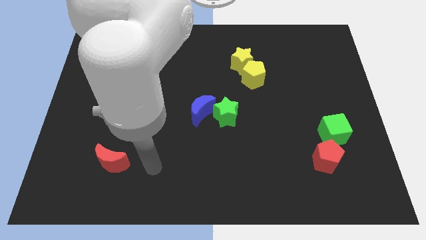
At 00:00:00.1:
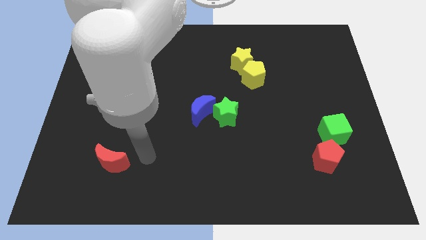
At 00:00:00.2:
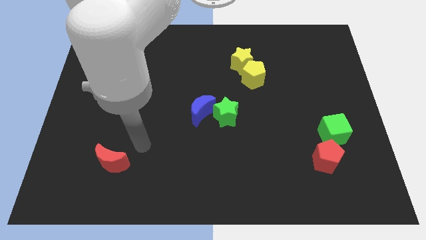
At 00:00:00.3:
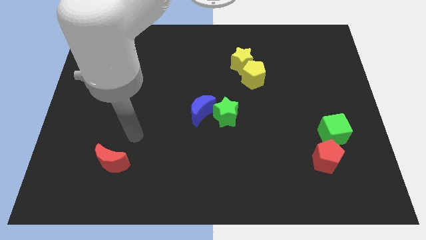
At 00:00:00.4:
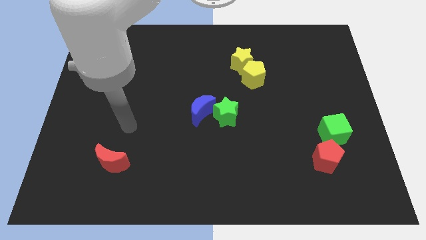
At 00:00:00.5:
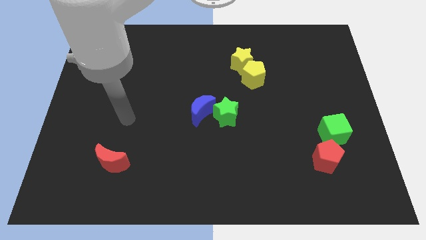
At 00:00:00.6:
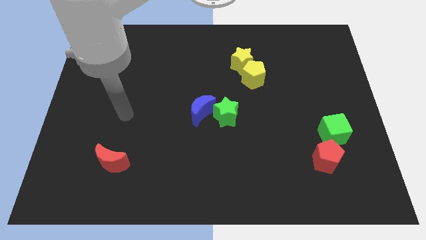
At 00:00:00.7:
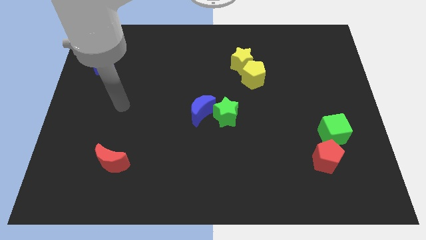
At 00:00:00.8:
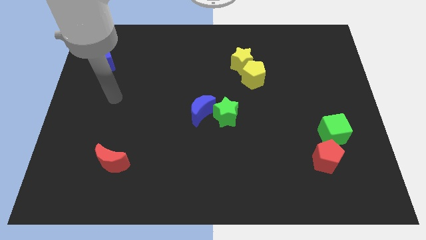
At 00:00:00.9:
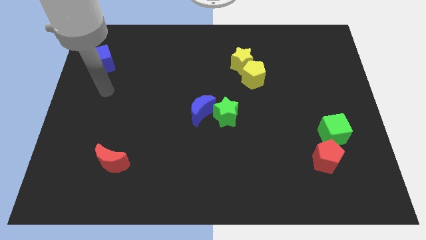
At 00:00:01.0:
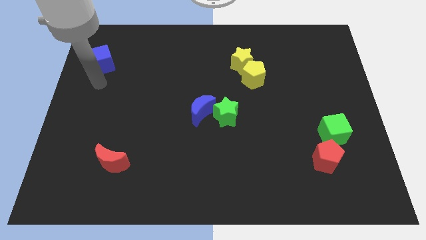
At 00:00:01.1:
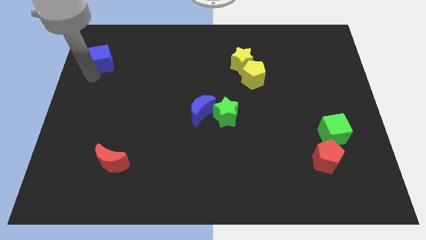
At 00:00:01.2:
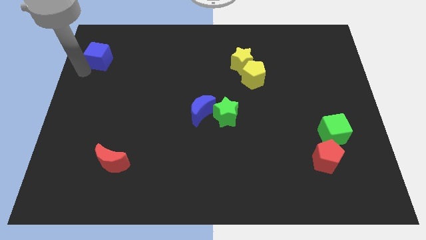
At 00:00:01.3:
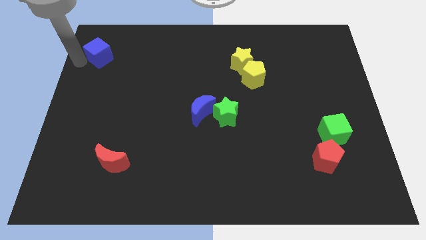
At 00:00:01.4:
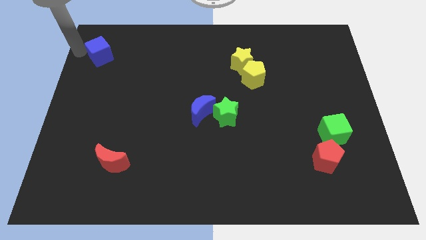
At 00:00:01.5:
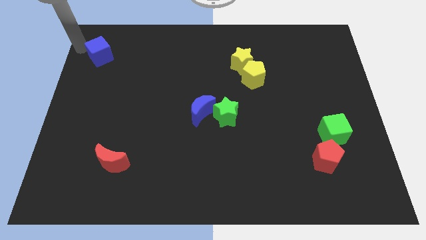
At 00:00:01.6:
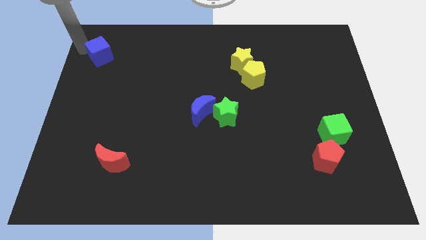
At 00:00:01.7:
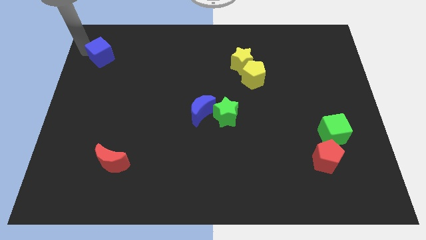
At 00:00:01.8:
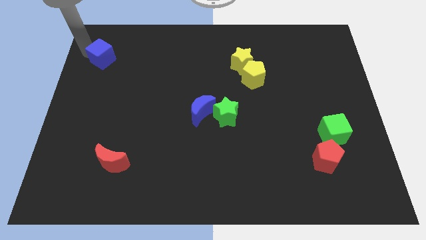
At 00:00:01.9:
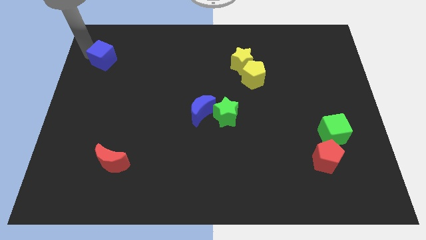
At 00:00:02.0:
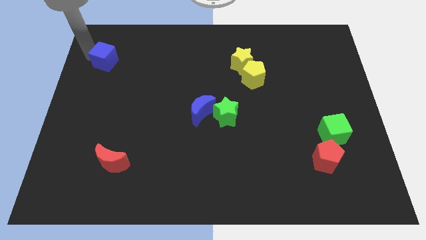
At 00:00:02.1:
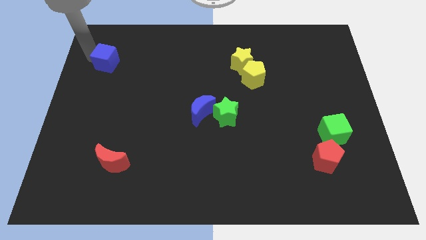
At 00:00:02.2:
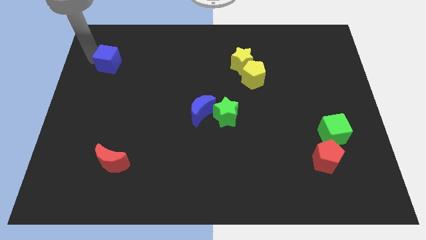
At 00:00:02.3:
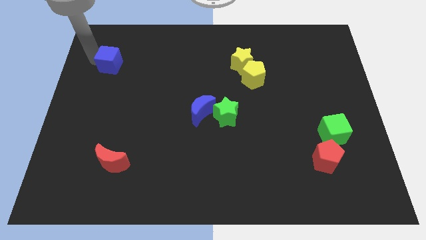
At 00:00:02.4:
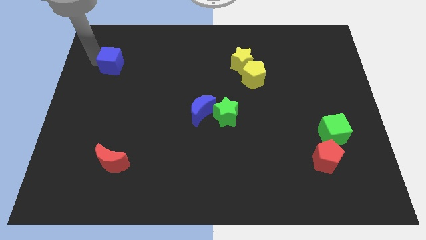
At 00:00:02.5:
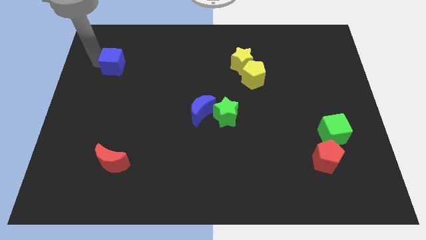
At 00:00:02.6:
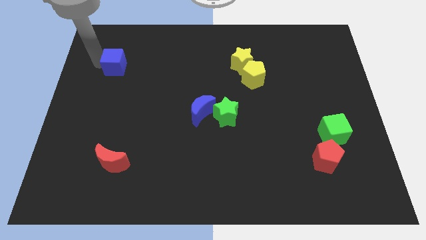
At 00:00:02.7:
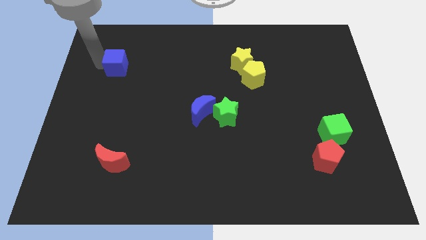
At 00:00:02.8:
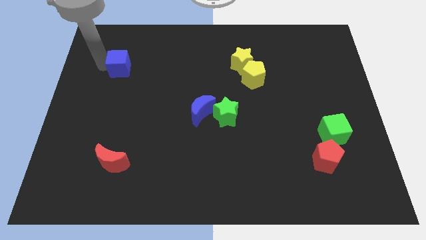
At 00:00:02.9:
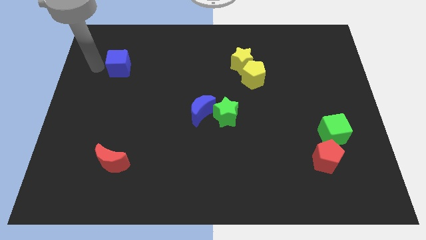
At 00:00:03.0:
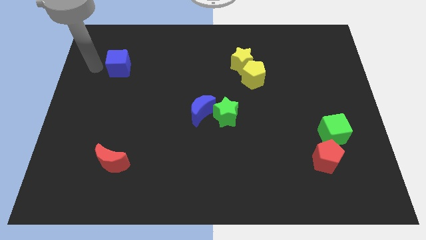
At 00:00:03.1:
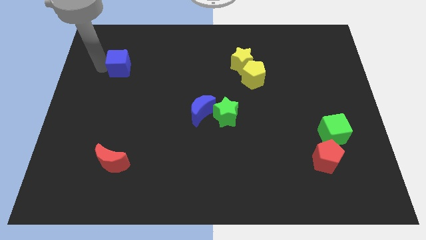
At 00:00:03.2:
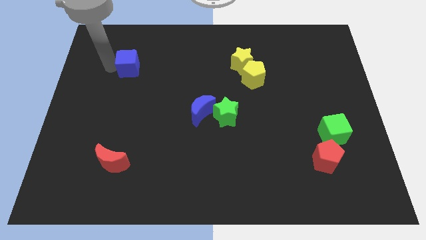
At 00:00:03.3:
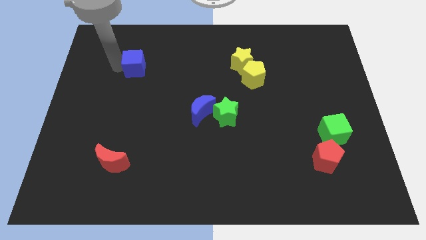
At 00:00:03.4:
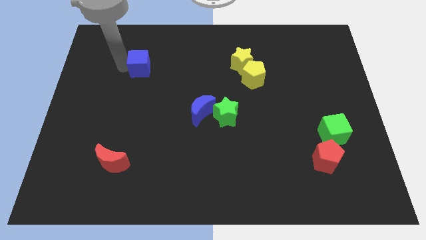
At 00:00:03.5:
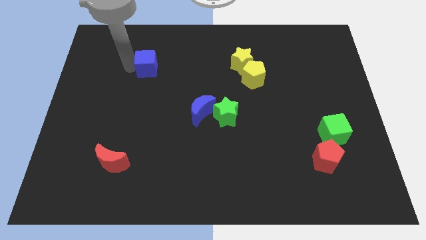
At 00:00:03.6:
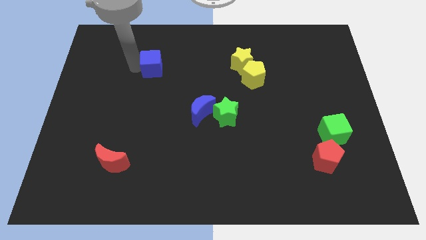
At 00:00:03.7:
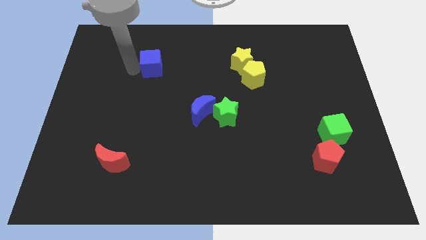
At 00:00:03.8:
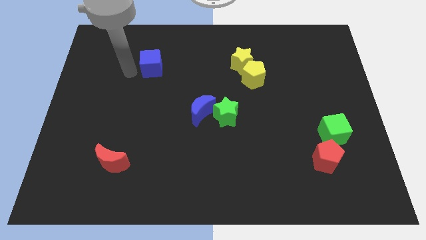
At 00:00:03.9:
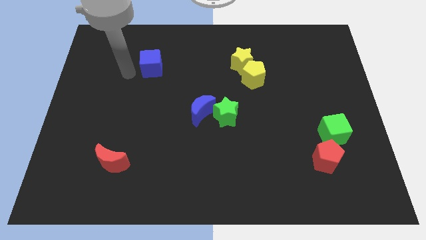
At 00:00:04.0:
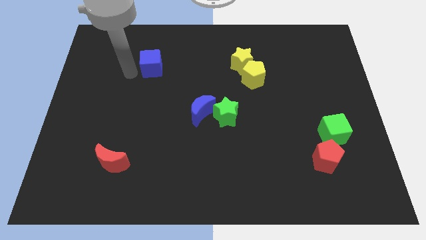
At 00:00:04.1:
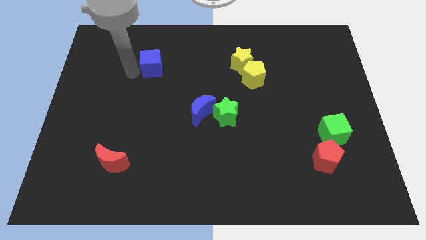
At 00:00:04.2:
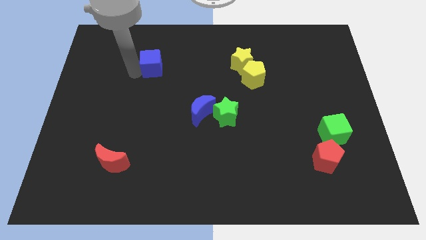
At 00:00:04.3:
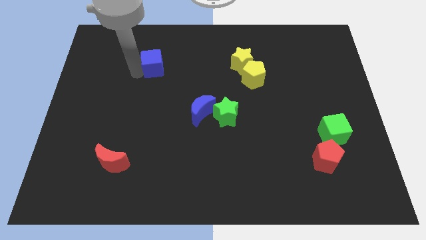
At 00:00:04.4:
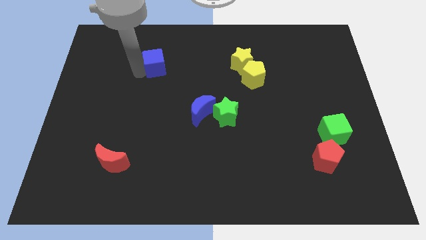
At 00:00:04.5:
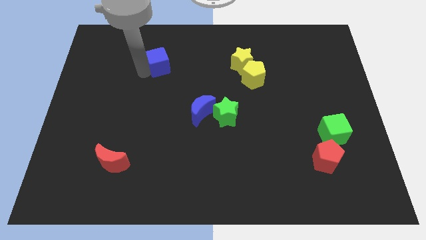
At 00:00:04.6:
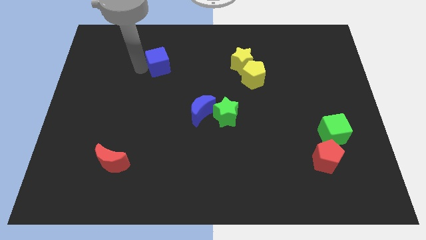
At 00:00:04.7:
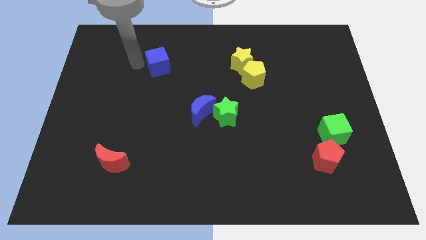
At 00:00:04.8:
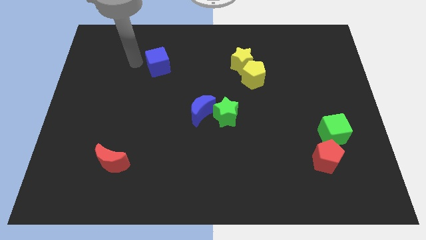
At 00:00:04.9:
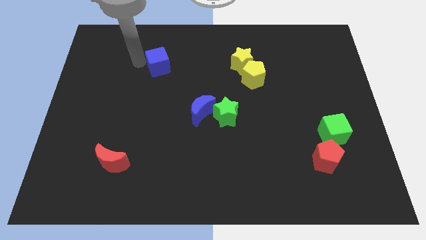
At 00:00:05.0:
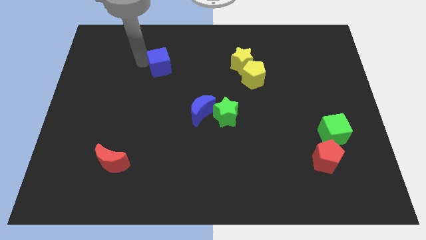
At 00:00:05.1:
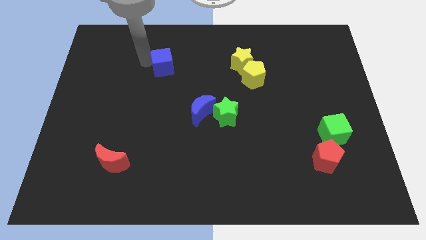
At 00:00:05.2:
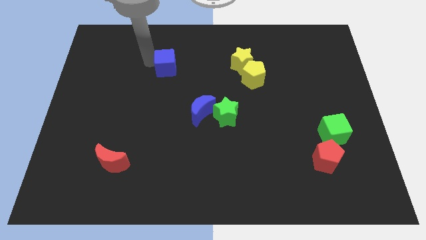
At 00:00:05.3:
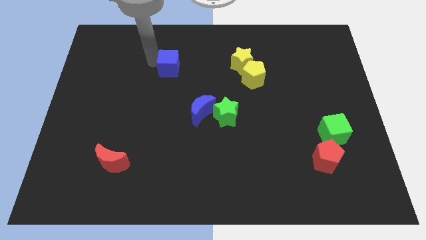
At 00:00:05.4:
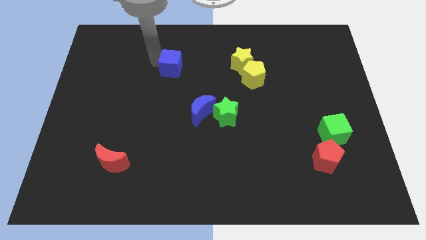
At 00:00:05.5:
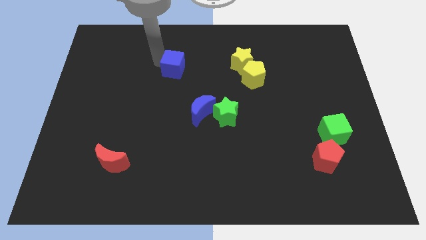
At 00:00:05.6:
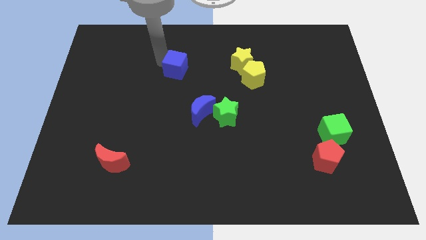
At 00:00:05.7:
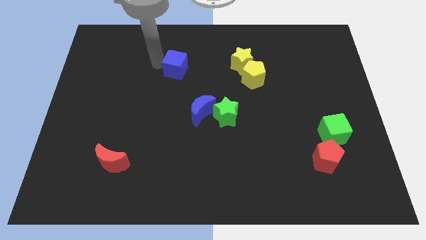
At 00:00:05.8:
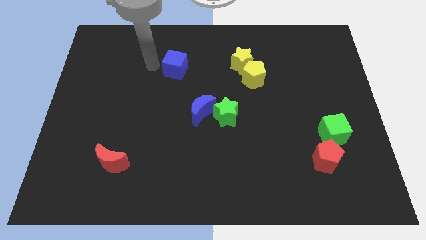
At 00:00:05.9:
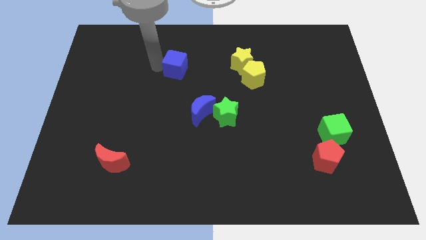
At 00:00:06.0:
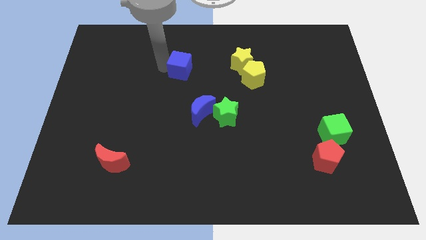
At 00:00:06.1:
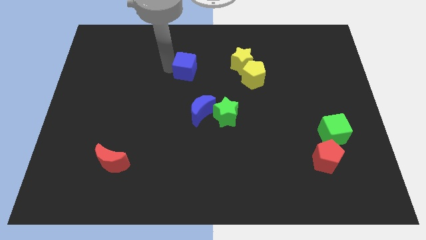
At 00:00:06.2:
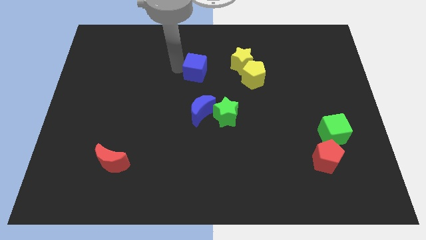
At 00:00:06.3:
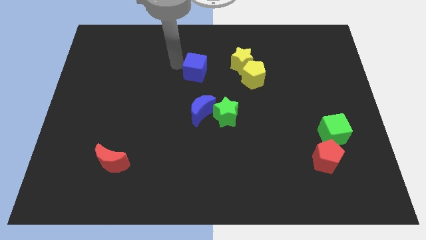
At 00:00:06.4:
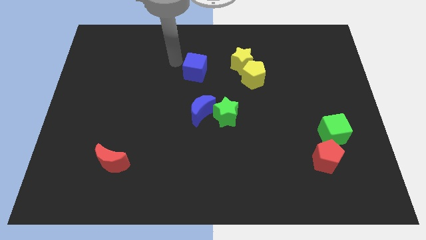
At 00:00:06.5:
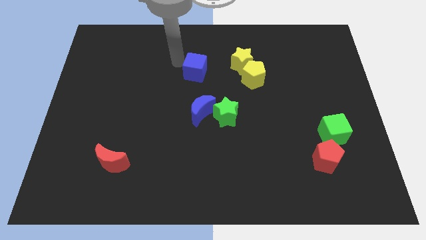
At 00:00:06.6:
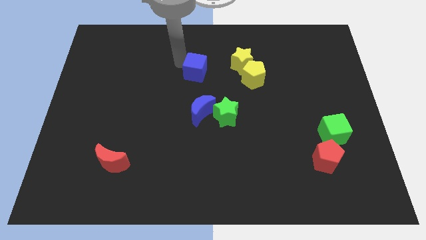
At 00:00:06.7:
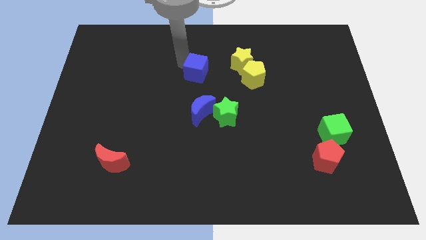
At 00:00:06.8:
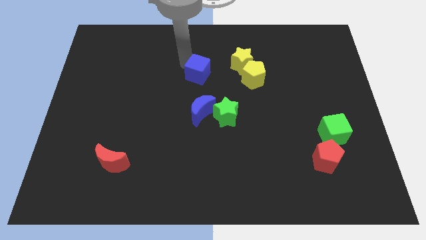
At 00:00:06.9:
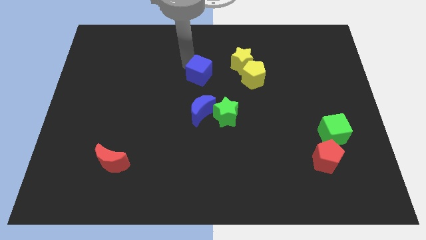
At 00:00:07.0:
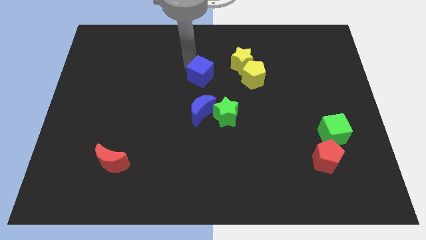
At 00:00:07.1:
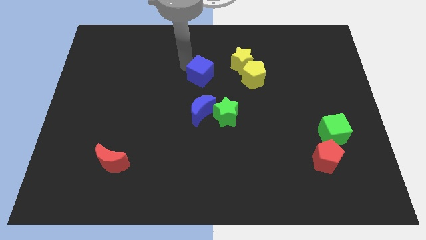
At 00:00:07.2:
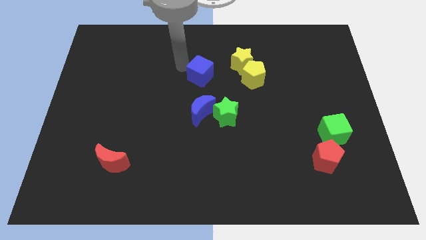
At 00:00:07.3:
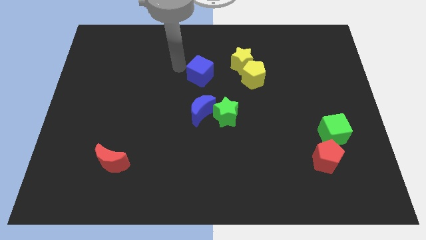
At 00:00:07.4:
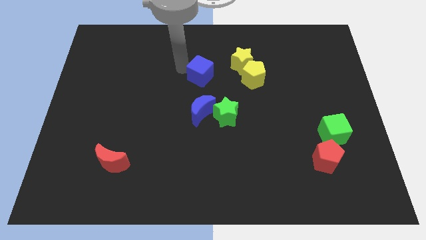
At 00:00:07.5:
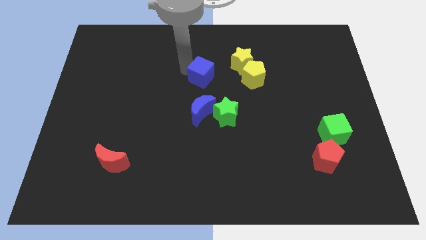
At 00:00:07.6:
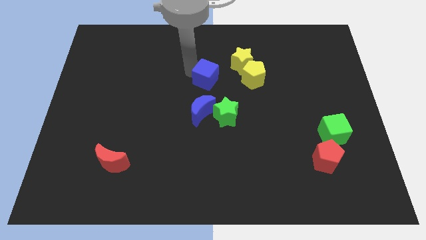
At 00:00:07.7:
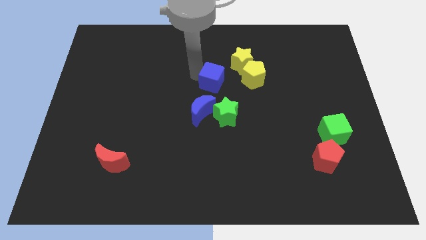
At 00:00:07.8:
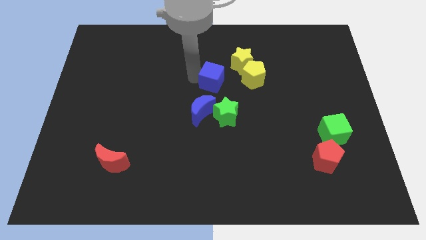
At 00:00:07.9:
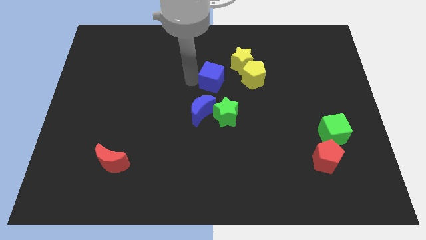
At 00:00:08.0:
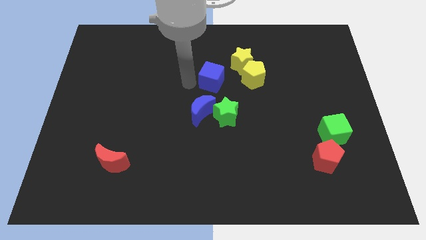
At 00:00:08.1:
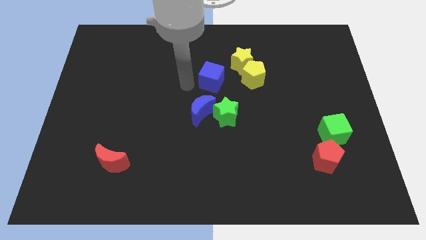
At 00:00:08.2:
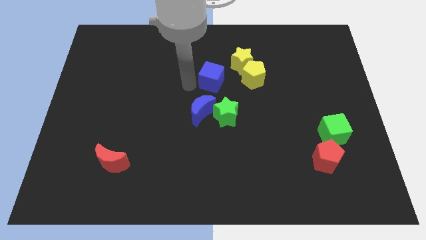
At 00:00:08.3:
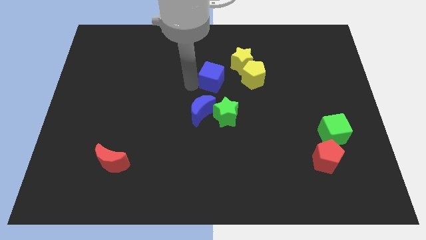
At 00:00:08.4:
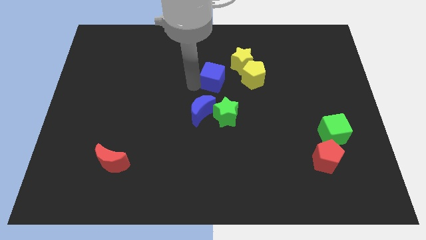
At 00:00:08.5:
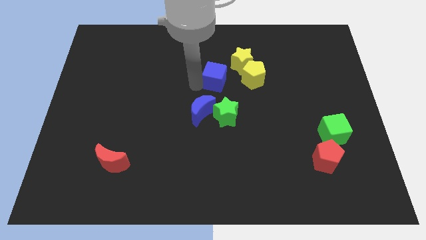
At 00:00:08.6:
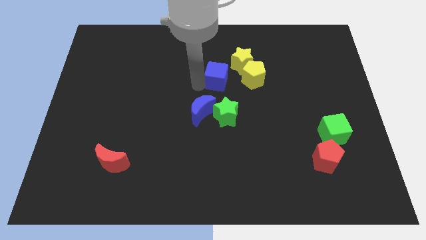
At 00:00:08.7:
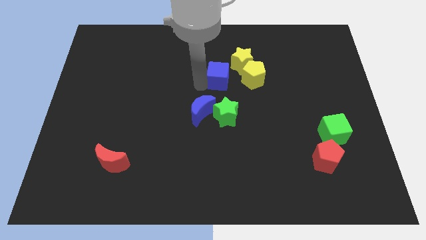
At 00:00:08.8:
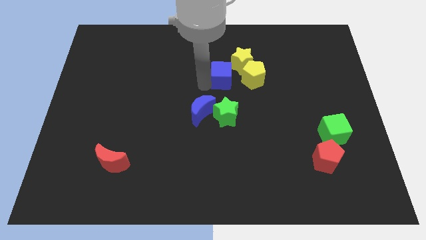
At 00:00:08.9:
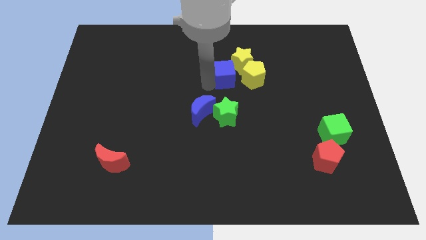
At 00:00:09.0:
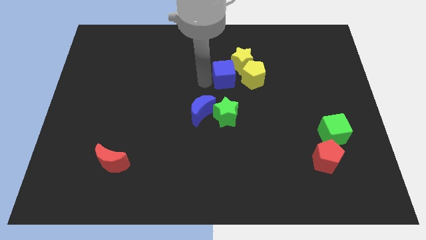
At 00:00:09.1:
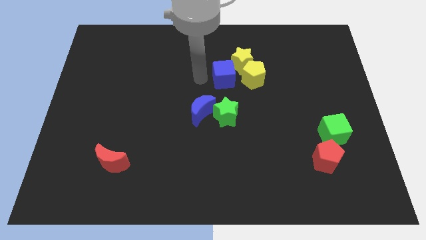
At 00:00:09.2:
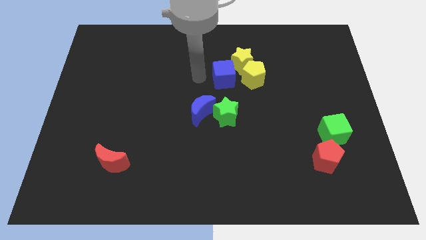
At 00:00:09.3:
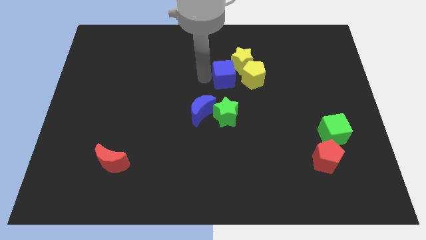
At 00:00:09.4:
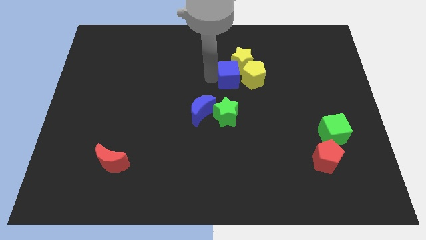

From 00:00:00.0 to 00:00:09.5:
push the blue cube to the yellow pentagon
